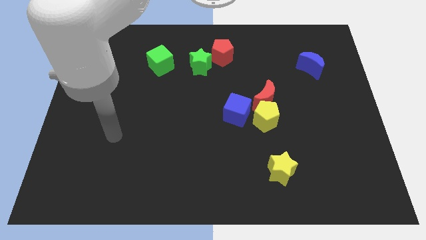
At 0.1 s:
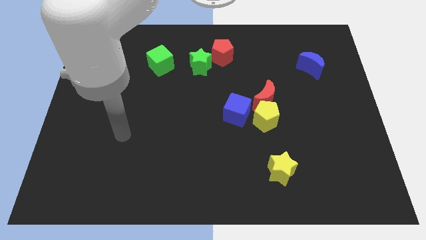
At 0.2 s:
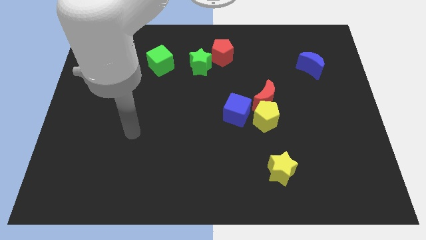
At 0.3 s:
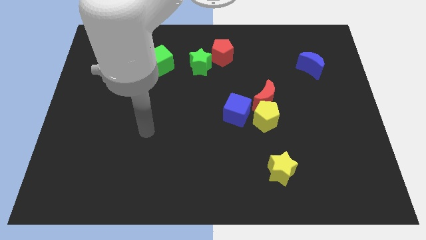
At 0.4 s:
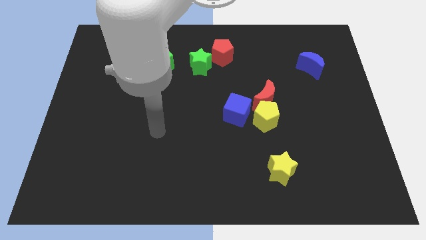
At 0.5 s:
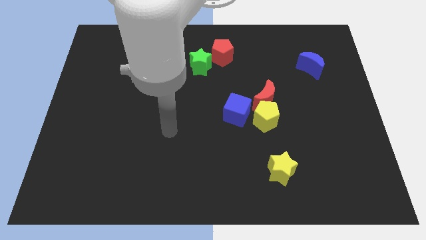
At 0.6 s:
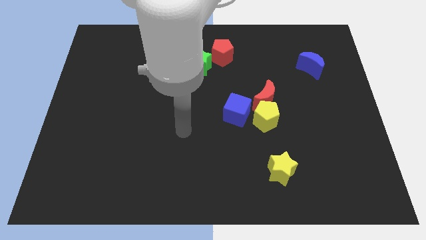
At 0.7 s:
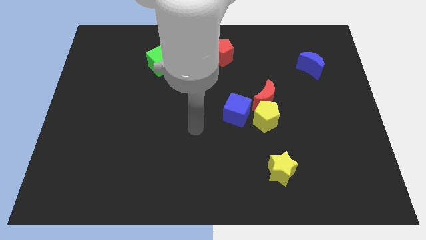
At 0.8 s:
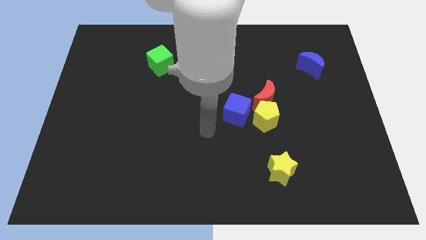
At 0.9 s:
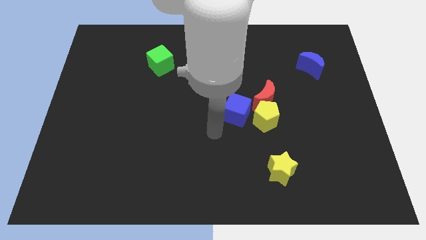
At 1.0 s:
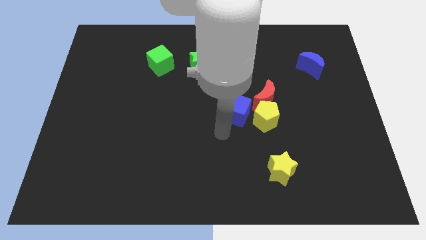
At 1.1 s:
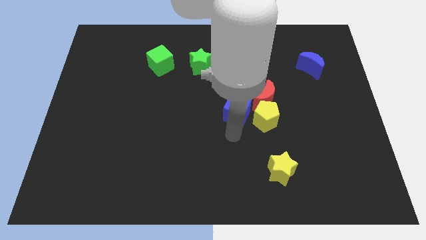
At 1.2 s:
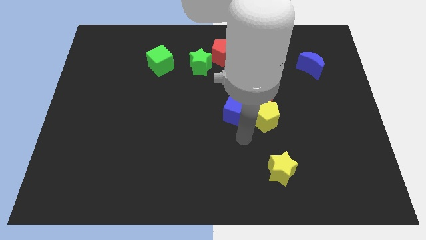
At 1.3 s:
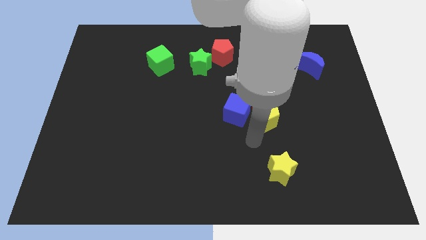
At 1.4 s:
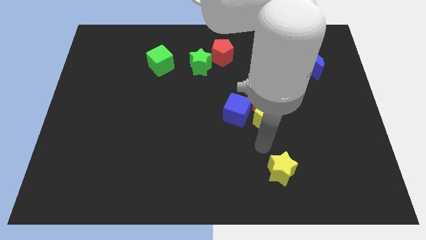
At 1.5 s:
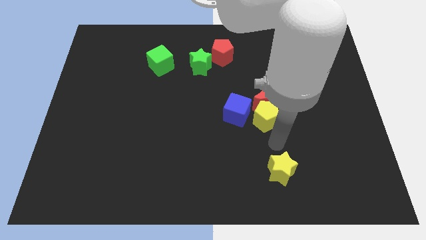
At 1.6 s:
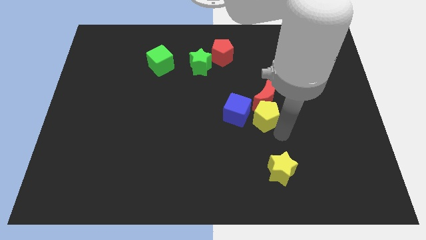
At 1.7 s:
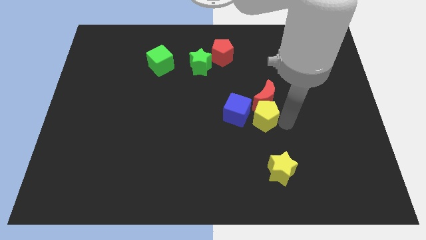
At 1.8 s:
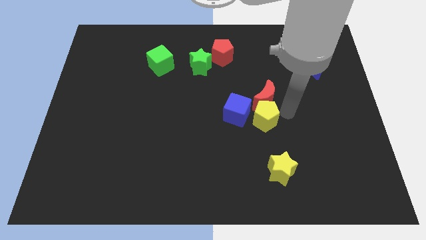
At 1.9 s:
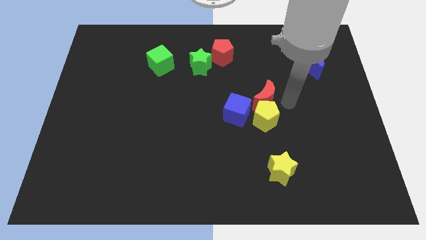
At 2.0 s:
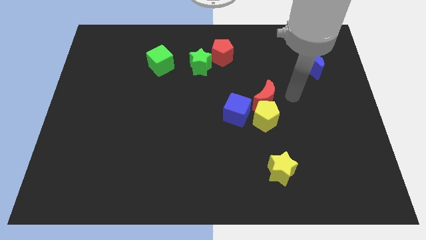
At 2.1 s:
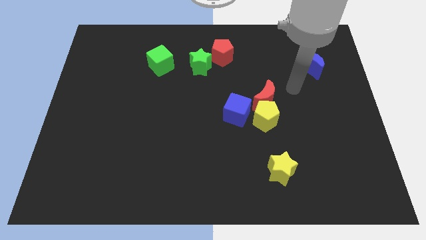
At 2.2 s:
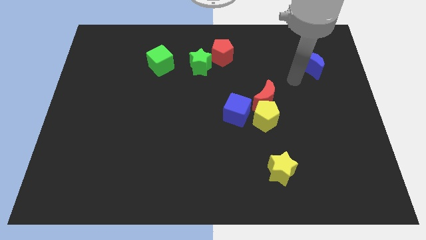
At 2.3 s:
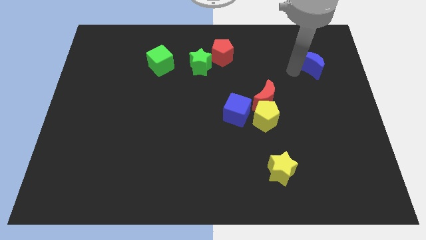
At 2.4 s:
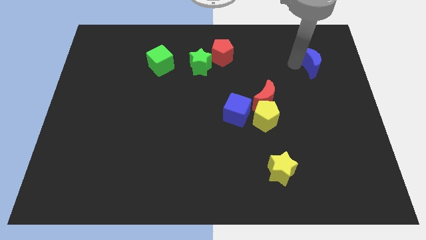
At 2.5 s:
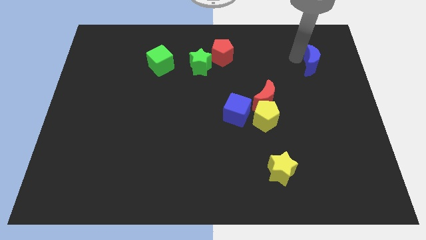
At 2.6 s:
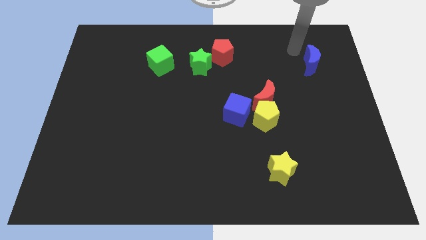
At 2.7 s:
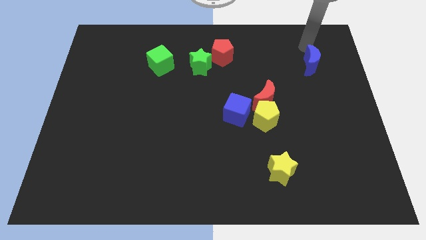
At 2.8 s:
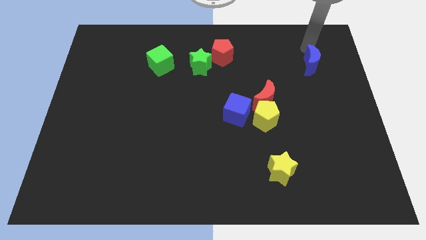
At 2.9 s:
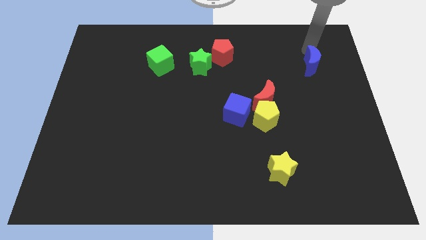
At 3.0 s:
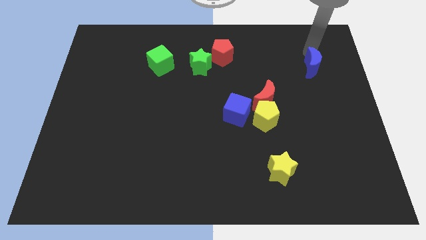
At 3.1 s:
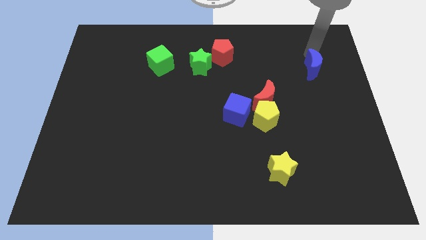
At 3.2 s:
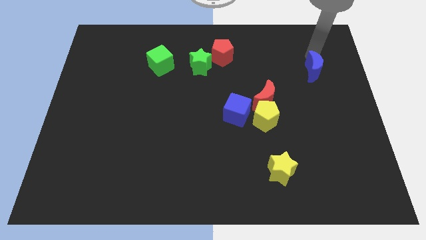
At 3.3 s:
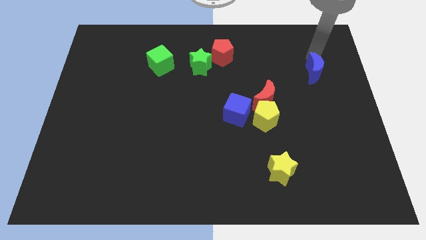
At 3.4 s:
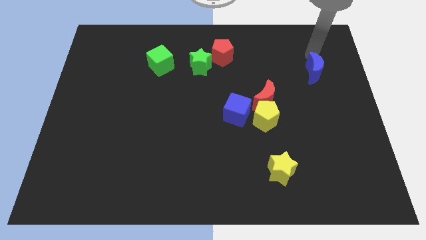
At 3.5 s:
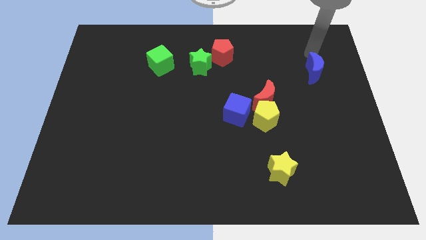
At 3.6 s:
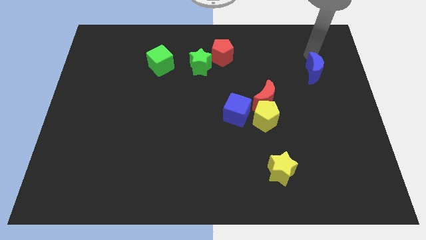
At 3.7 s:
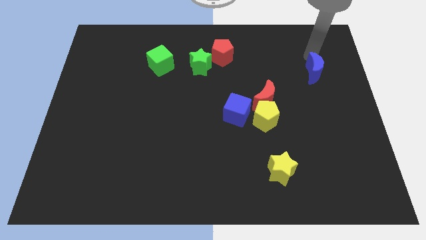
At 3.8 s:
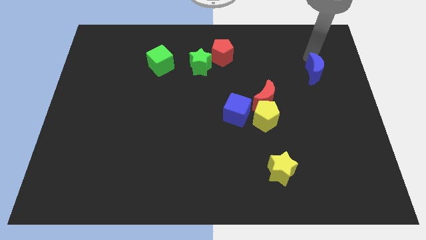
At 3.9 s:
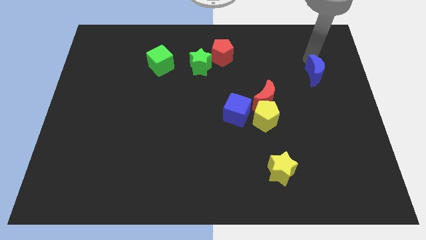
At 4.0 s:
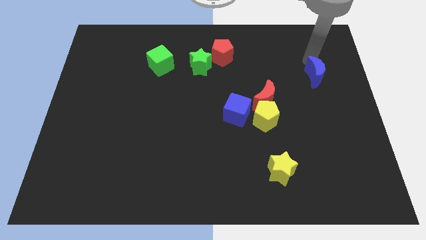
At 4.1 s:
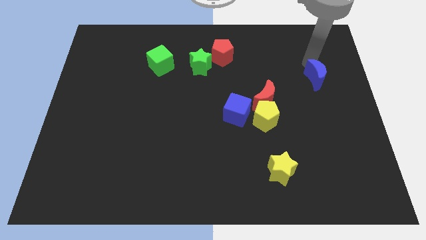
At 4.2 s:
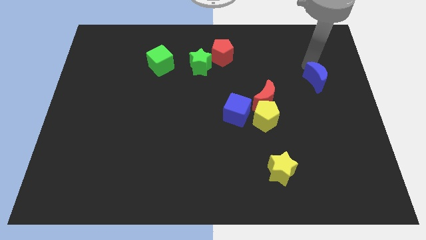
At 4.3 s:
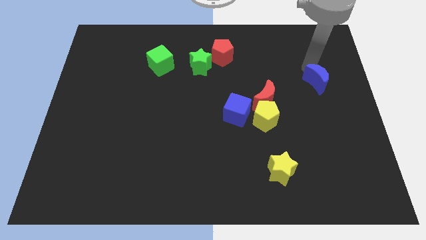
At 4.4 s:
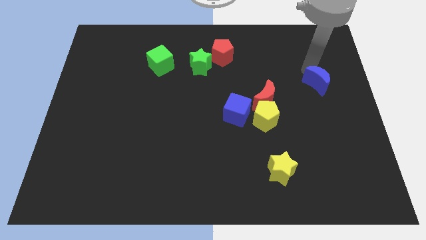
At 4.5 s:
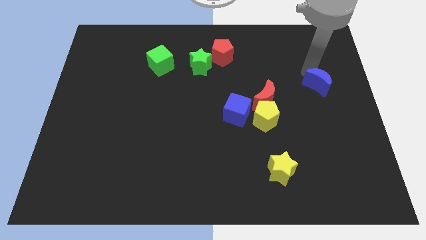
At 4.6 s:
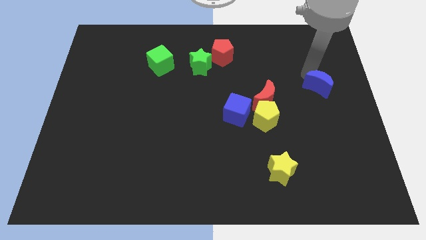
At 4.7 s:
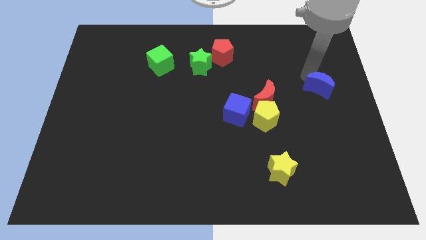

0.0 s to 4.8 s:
move the blue moon a little down

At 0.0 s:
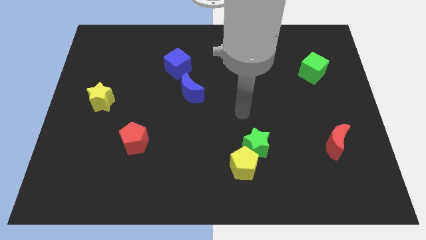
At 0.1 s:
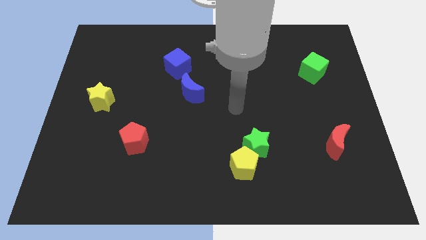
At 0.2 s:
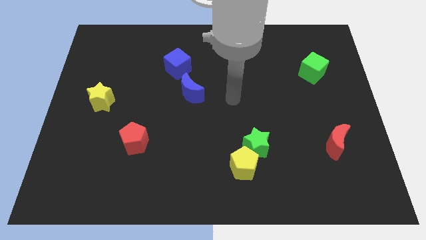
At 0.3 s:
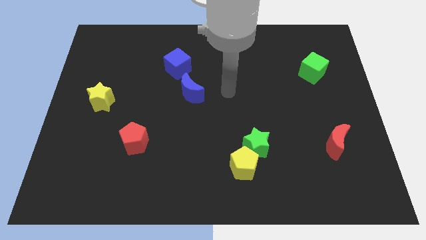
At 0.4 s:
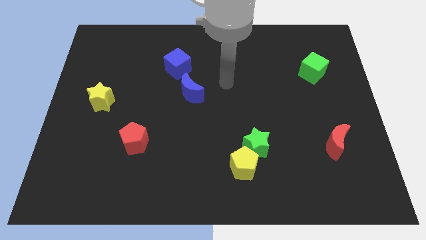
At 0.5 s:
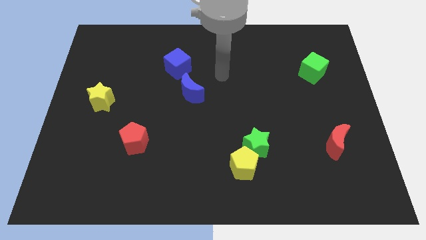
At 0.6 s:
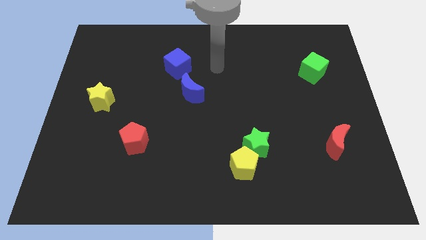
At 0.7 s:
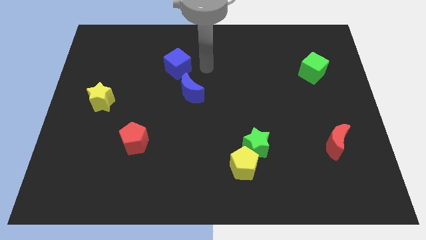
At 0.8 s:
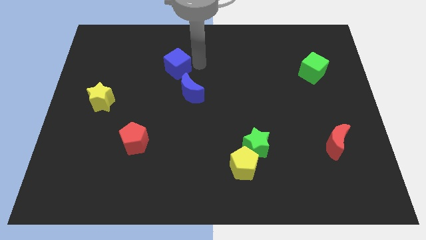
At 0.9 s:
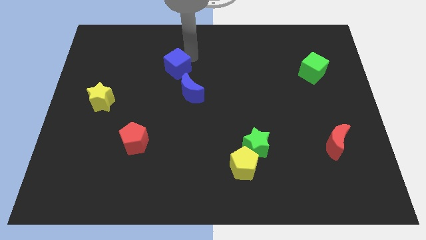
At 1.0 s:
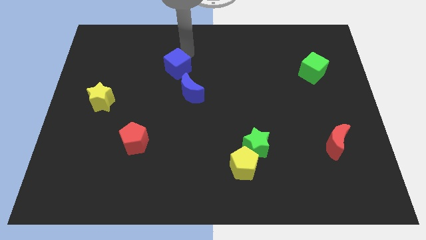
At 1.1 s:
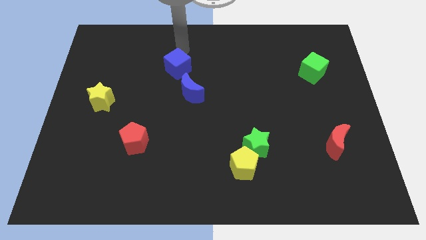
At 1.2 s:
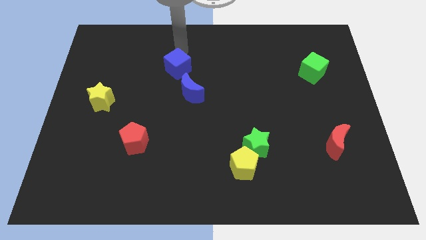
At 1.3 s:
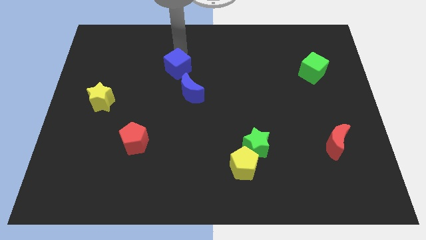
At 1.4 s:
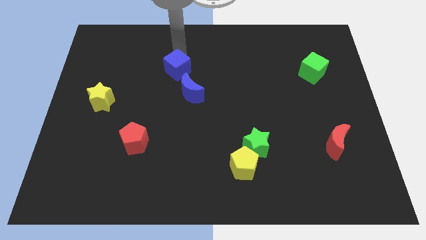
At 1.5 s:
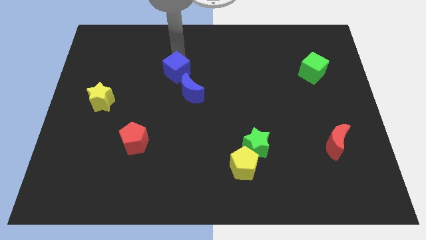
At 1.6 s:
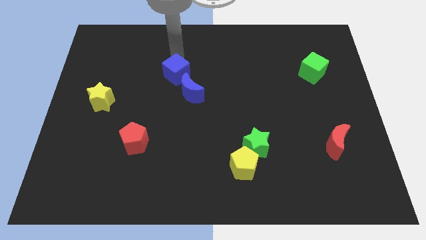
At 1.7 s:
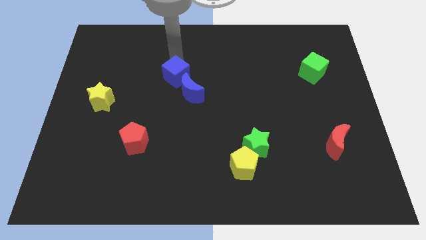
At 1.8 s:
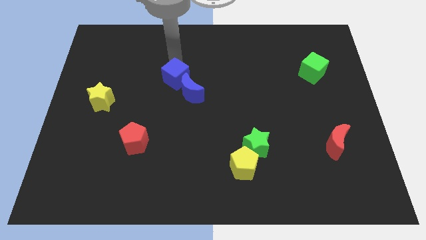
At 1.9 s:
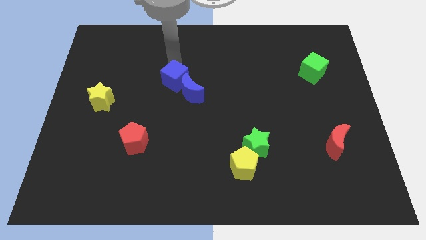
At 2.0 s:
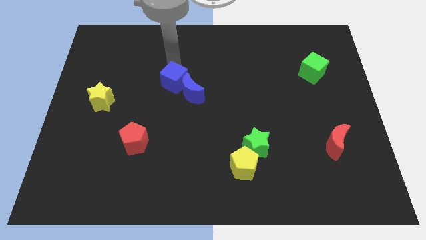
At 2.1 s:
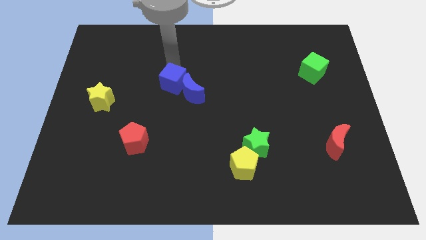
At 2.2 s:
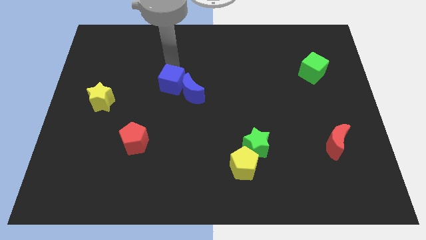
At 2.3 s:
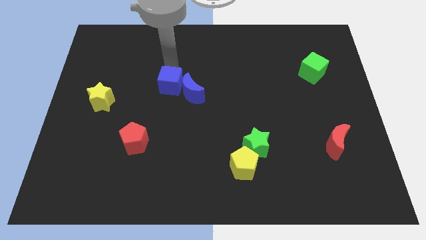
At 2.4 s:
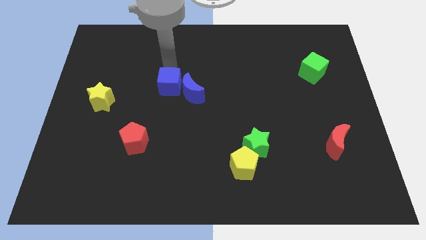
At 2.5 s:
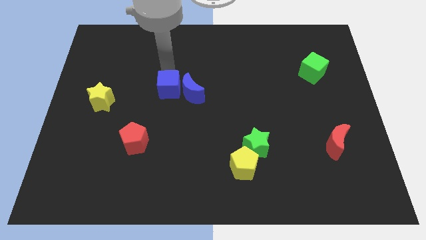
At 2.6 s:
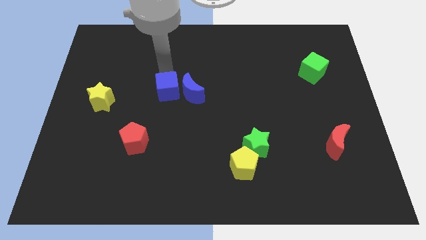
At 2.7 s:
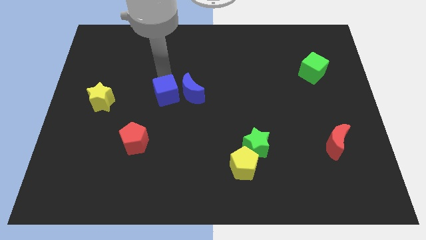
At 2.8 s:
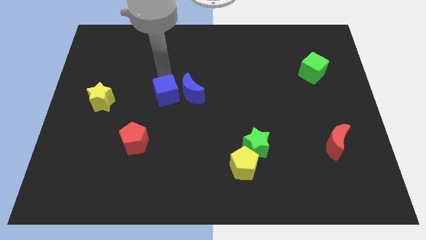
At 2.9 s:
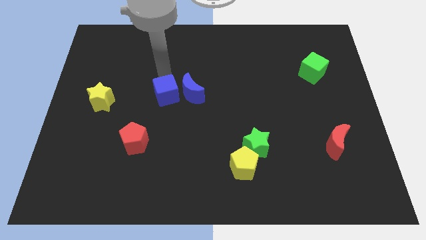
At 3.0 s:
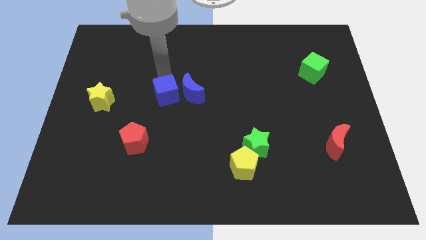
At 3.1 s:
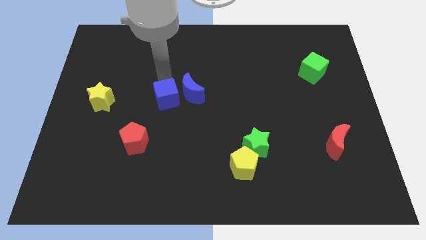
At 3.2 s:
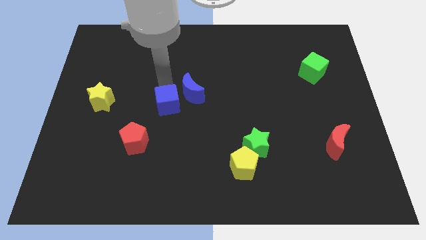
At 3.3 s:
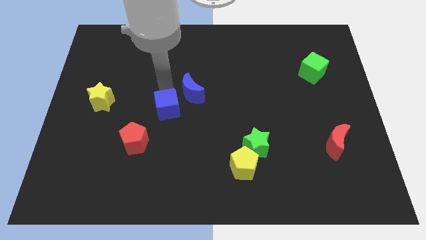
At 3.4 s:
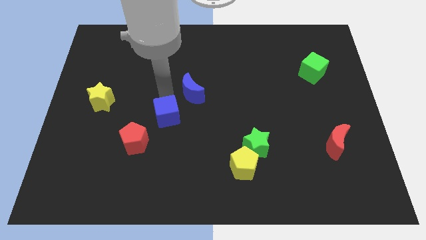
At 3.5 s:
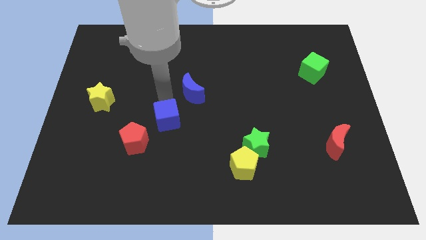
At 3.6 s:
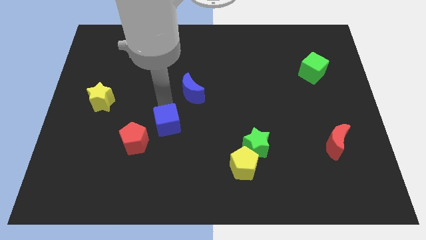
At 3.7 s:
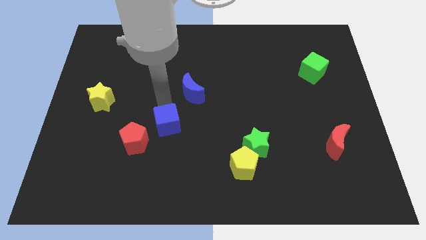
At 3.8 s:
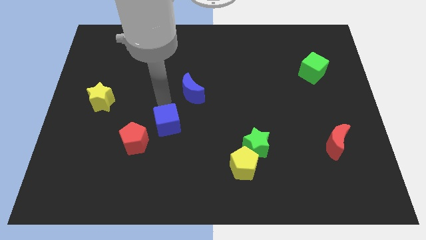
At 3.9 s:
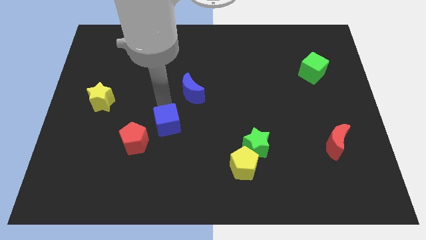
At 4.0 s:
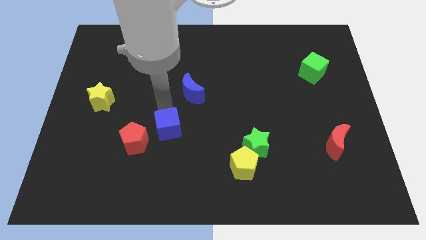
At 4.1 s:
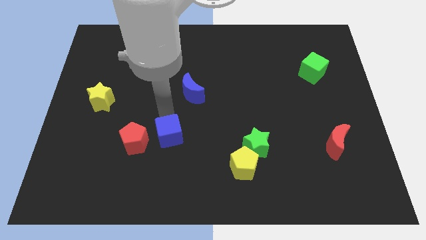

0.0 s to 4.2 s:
slide the blue cube downwards
